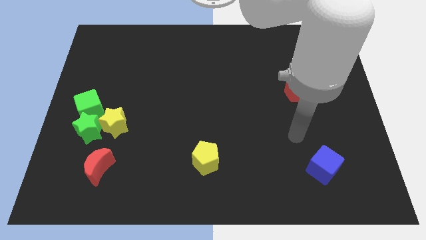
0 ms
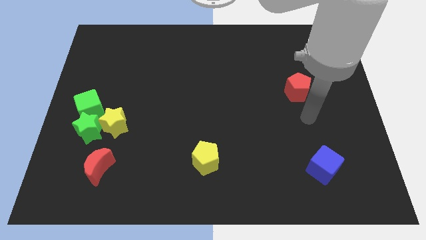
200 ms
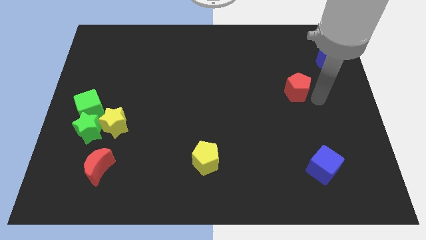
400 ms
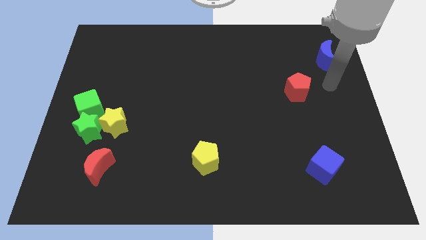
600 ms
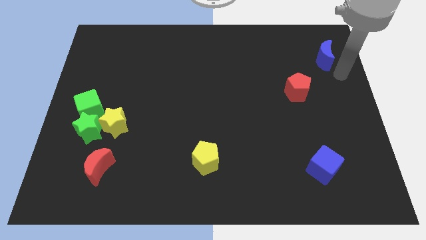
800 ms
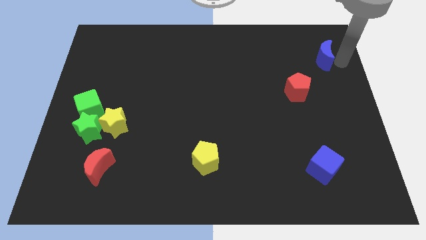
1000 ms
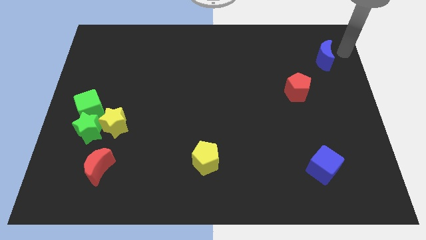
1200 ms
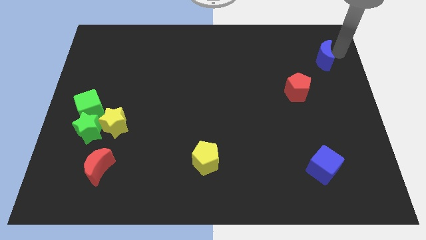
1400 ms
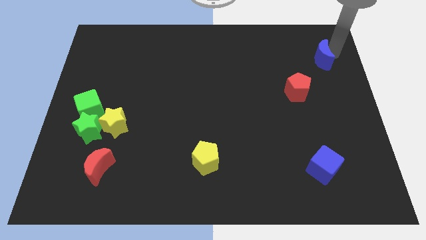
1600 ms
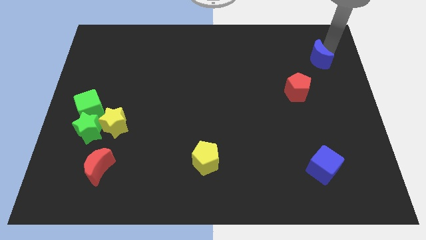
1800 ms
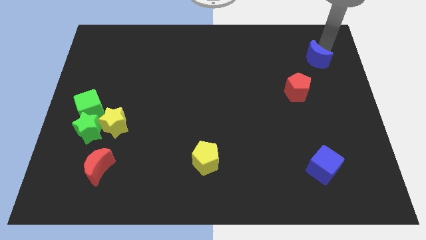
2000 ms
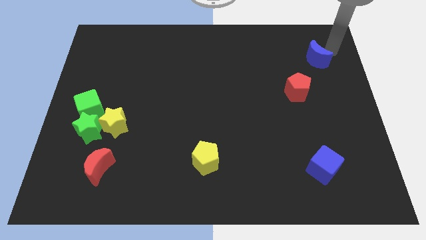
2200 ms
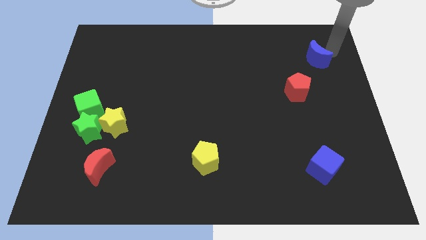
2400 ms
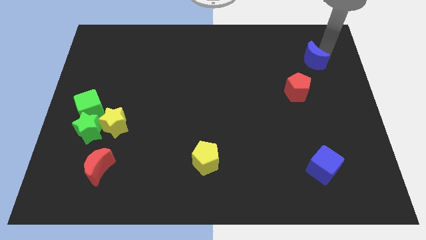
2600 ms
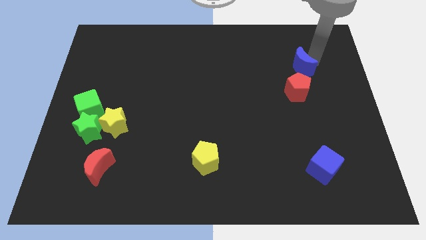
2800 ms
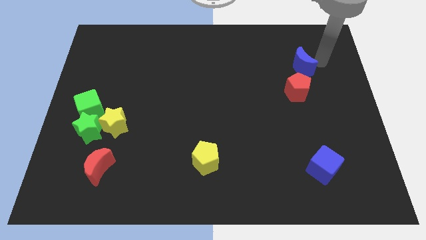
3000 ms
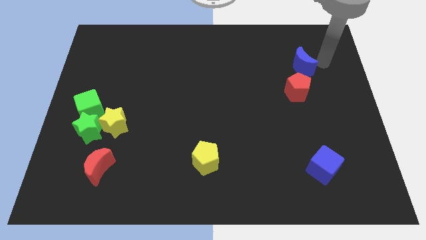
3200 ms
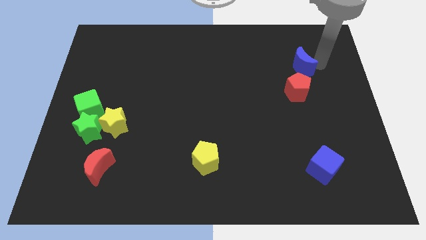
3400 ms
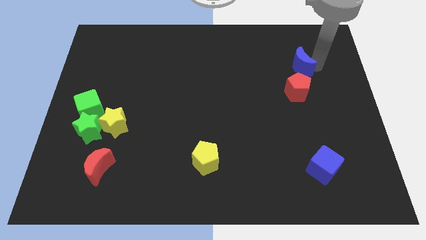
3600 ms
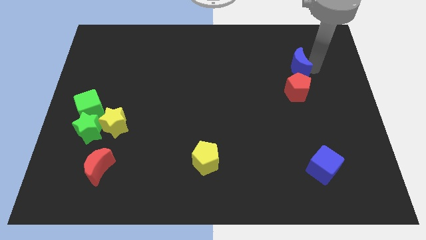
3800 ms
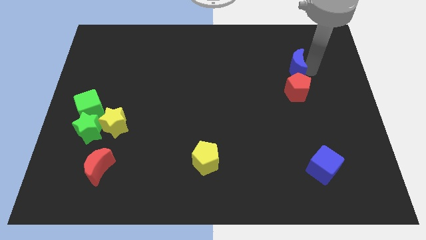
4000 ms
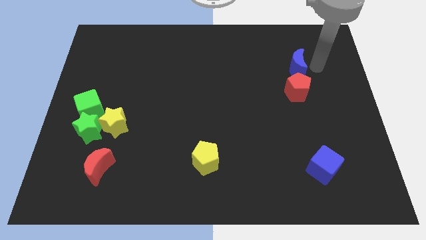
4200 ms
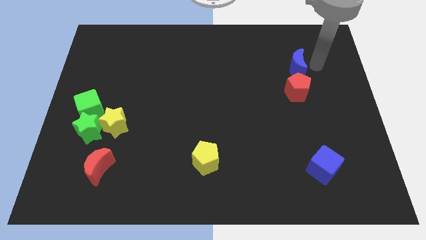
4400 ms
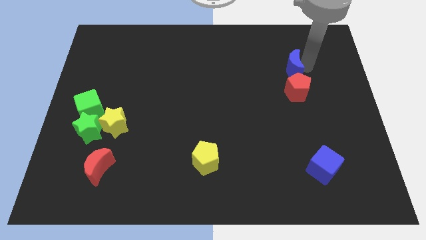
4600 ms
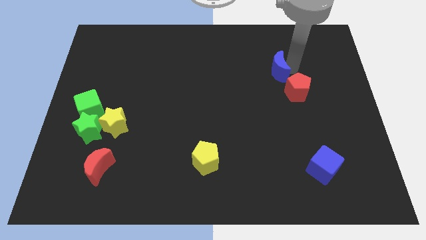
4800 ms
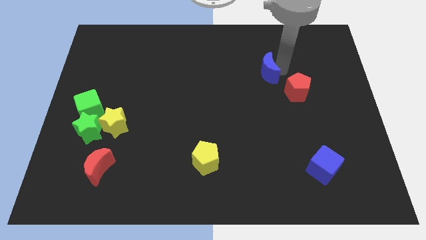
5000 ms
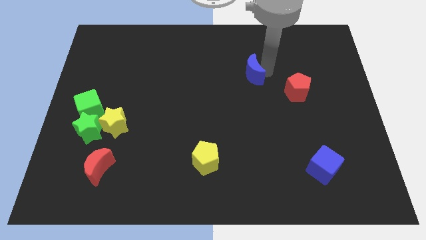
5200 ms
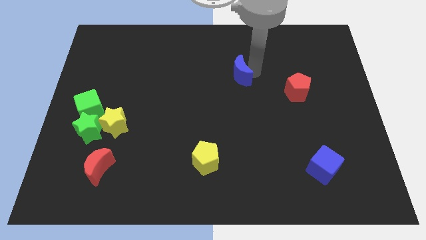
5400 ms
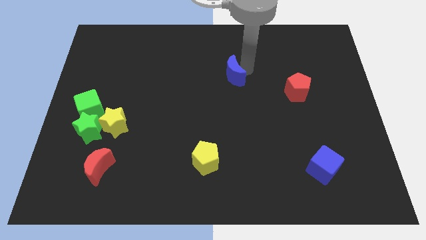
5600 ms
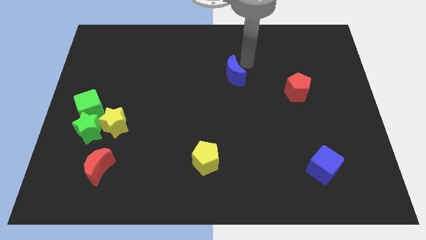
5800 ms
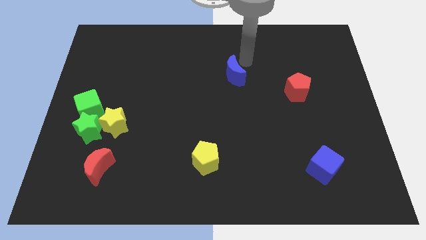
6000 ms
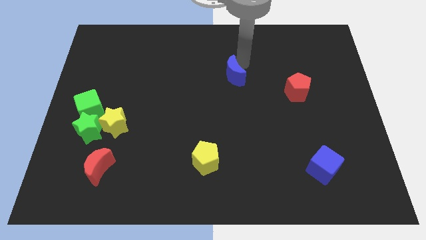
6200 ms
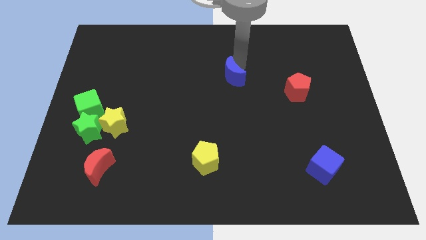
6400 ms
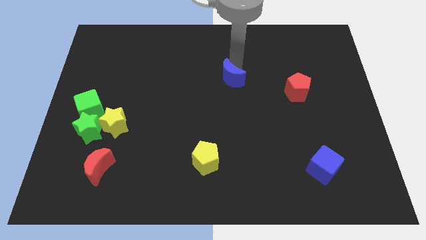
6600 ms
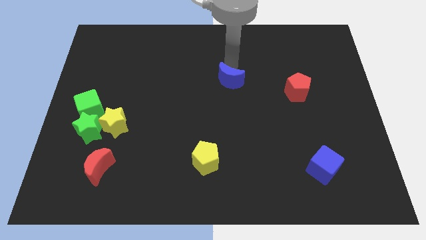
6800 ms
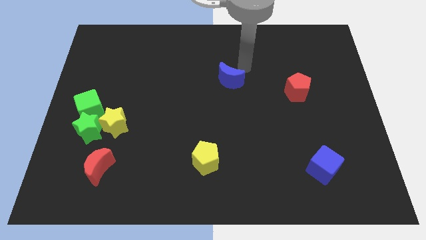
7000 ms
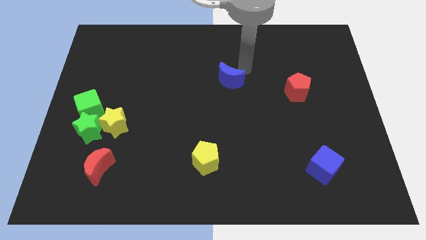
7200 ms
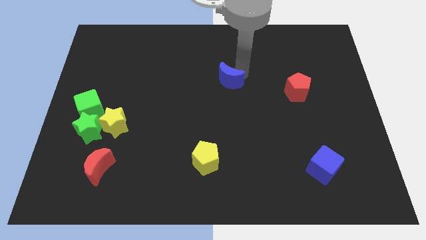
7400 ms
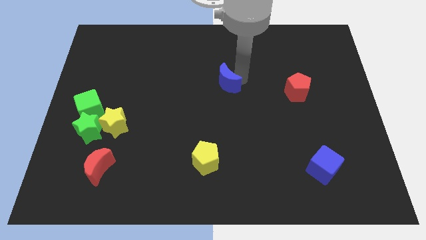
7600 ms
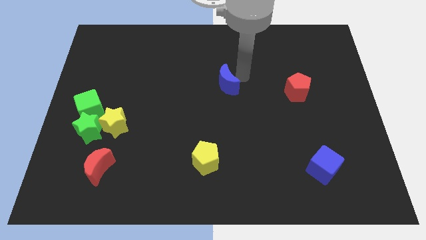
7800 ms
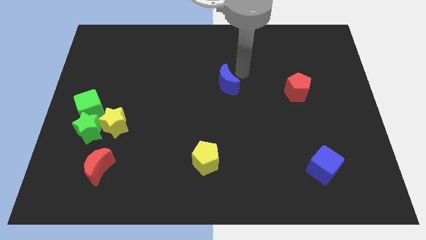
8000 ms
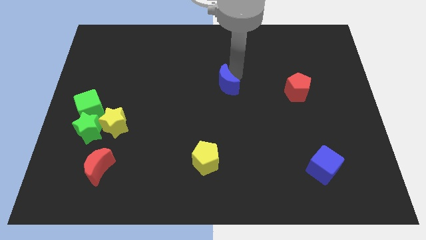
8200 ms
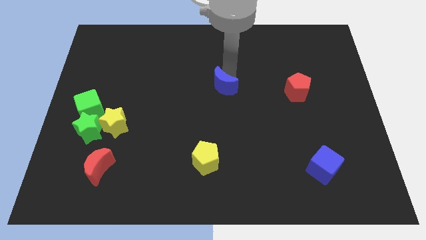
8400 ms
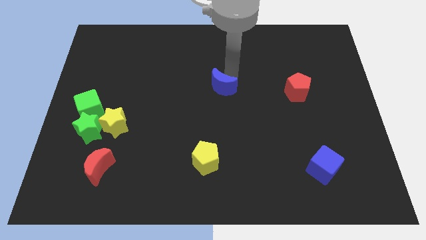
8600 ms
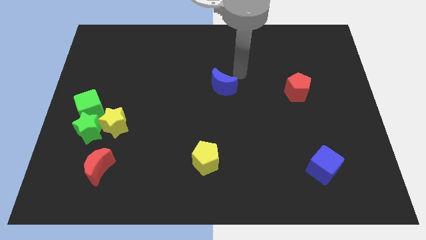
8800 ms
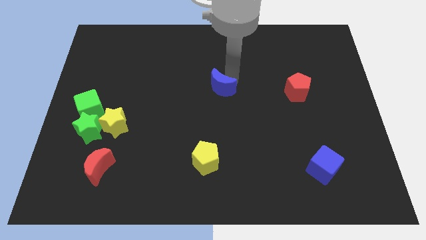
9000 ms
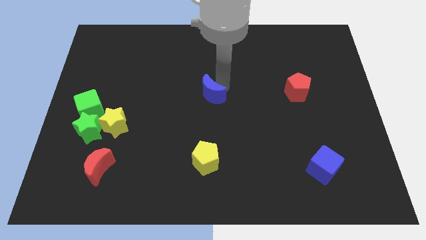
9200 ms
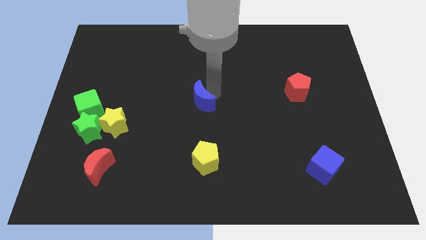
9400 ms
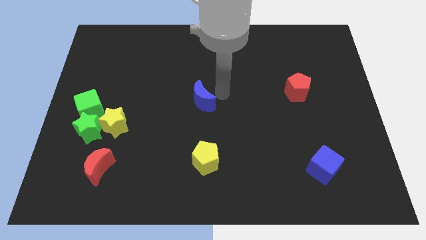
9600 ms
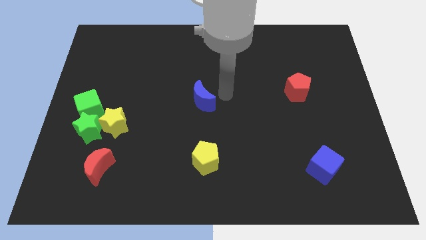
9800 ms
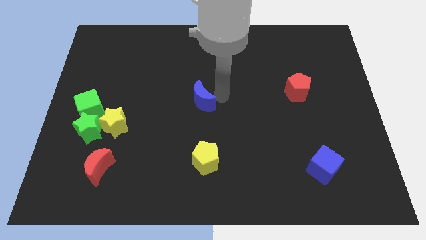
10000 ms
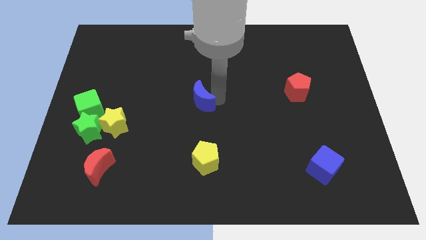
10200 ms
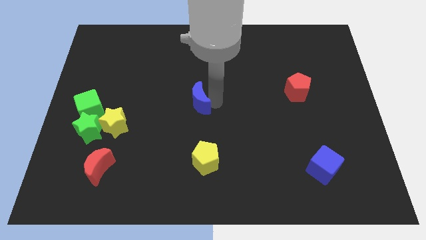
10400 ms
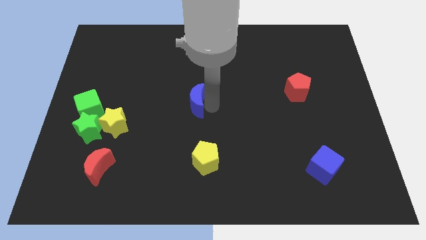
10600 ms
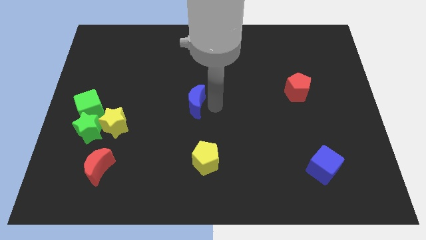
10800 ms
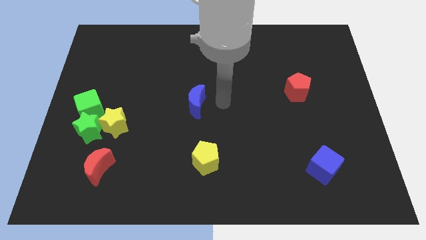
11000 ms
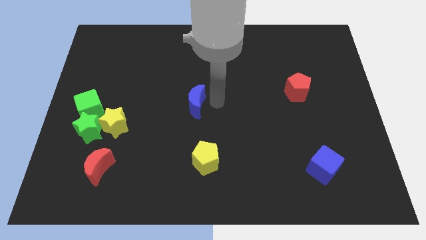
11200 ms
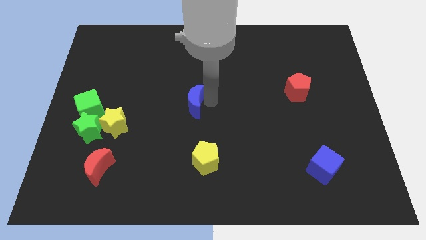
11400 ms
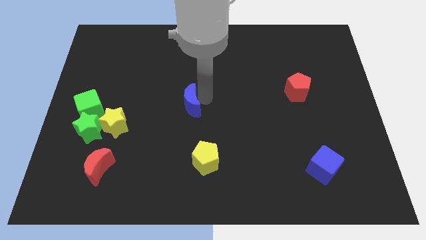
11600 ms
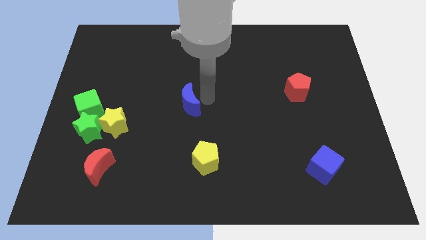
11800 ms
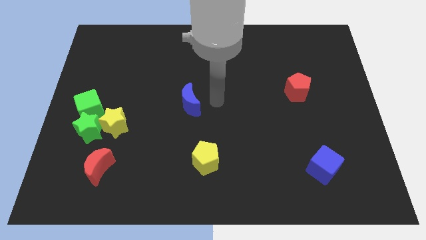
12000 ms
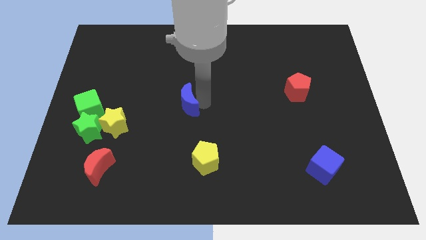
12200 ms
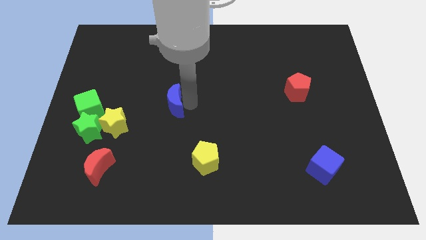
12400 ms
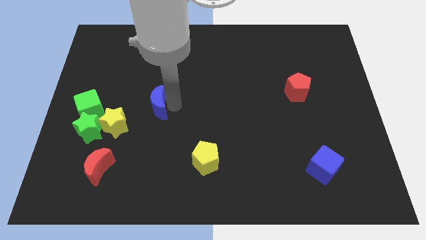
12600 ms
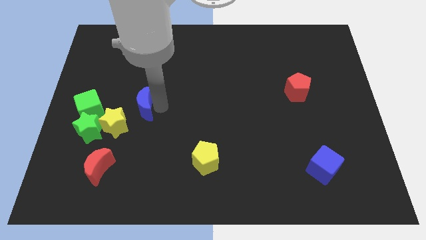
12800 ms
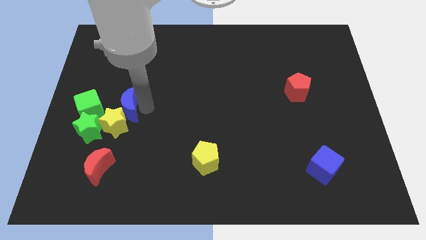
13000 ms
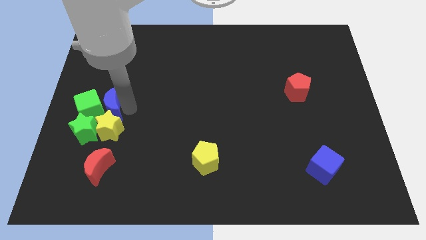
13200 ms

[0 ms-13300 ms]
push the blue moon to the green cube

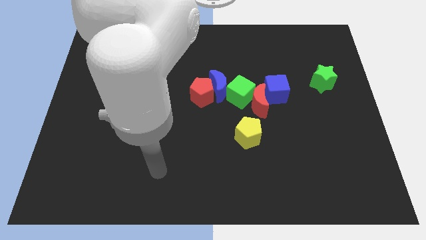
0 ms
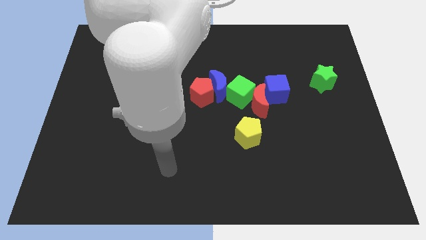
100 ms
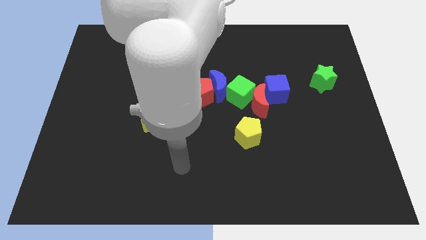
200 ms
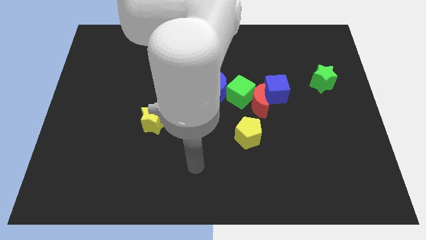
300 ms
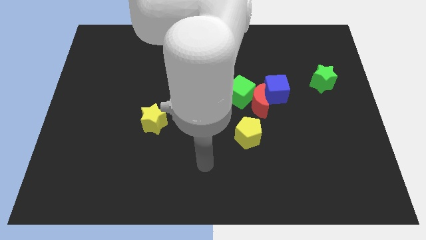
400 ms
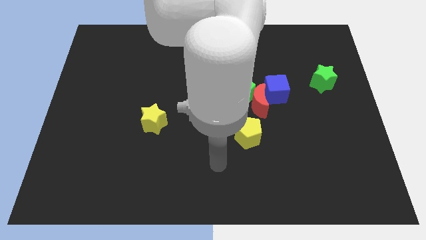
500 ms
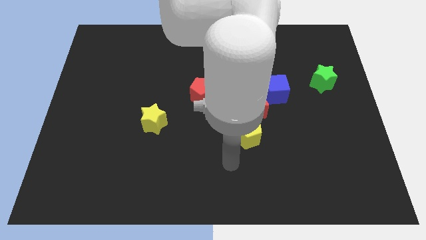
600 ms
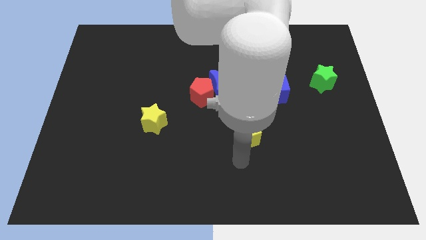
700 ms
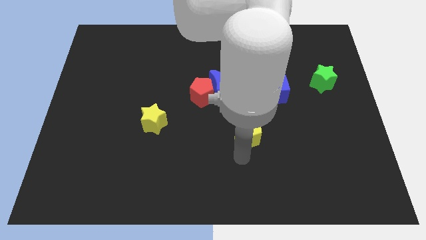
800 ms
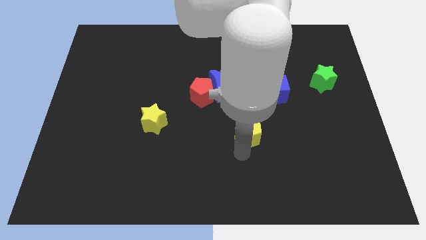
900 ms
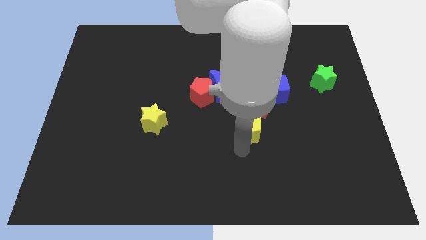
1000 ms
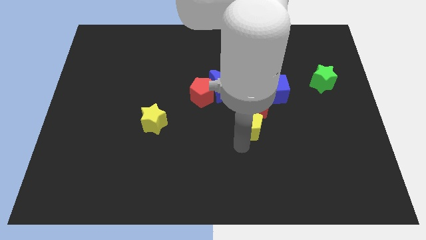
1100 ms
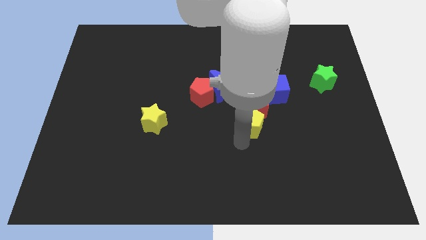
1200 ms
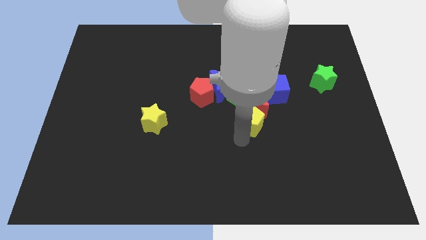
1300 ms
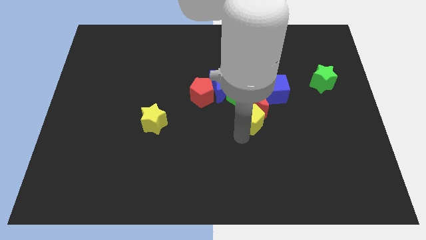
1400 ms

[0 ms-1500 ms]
move the yellow pentagon to the red moon
